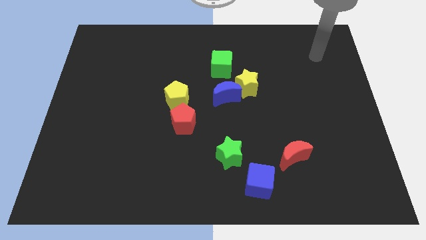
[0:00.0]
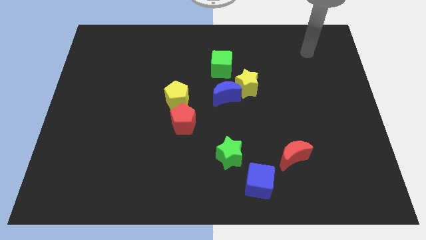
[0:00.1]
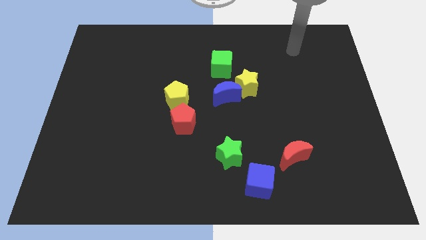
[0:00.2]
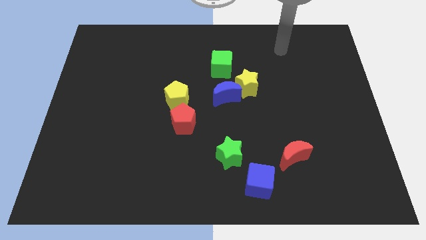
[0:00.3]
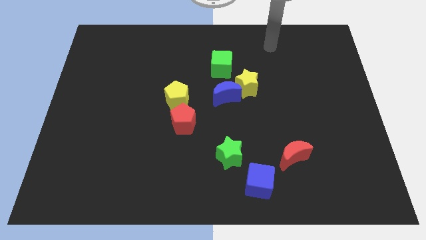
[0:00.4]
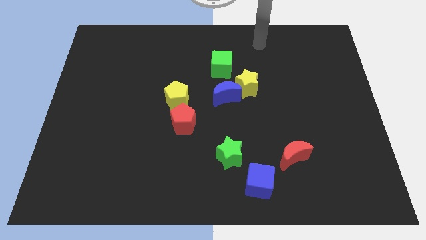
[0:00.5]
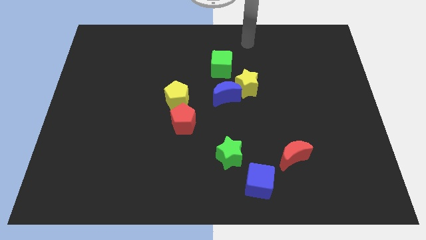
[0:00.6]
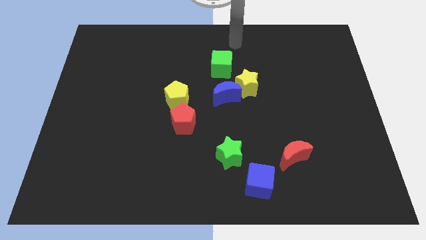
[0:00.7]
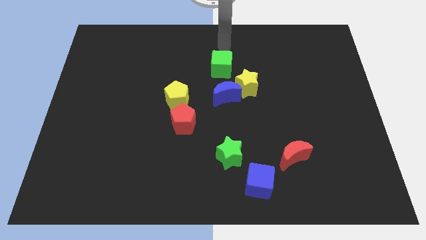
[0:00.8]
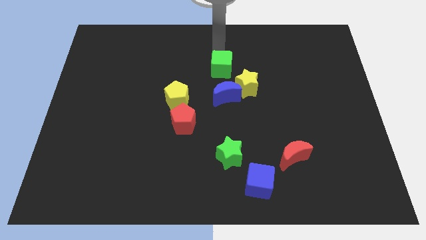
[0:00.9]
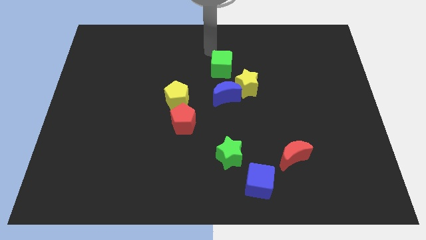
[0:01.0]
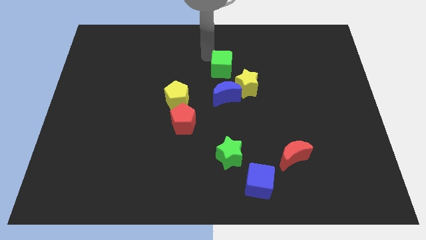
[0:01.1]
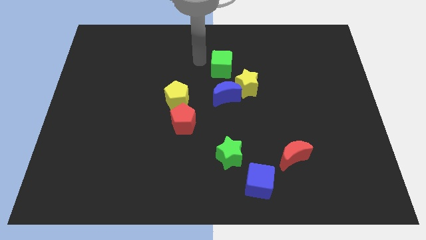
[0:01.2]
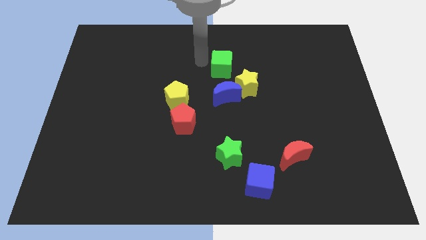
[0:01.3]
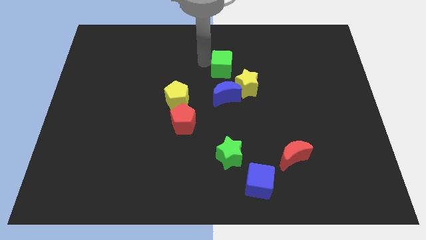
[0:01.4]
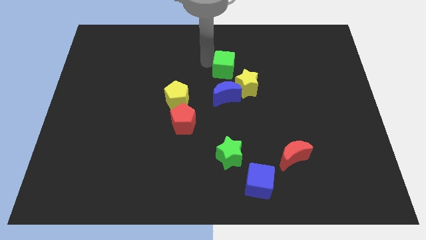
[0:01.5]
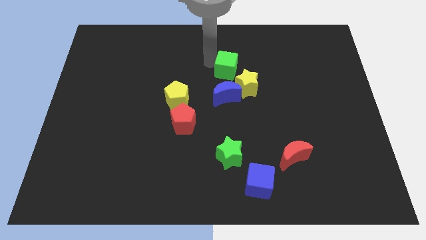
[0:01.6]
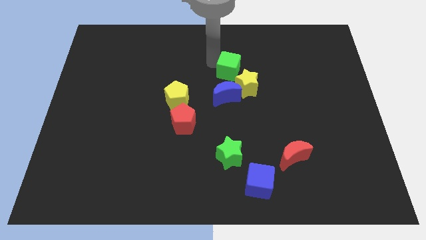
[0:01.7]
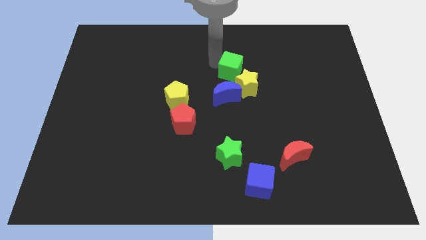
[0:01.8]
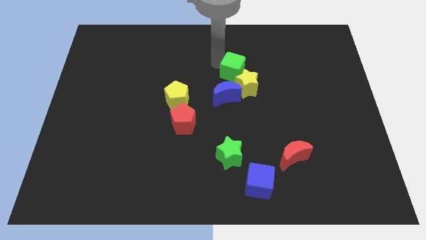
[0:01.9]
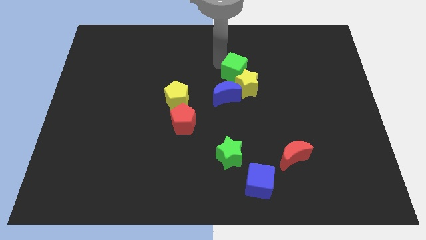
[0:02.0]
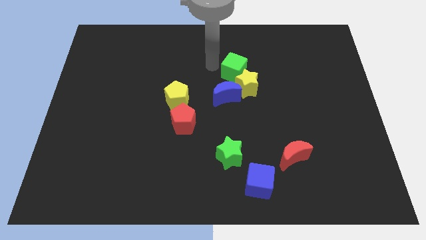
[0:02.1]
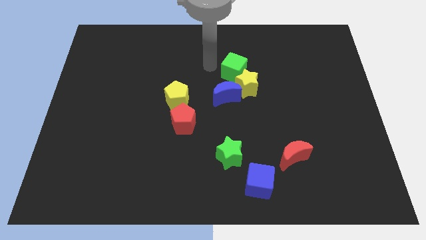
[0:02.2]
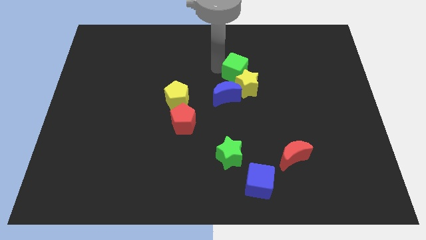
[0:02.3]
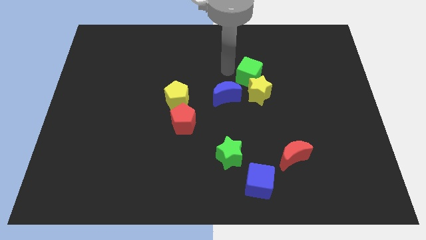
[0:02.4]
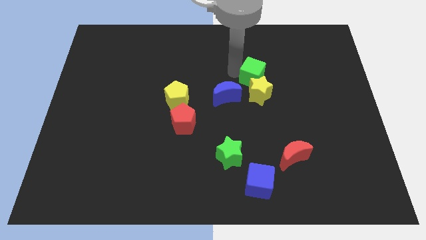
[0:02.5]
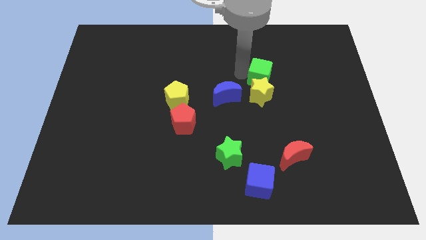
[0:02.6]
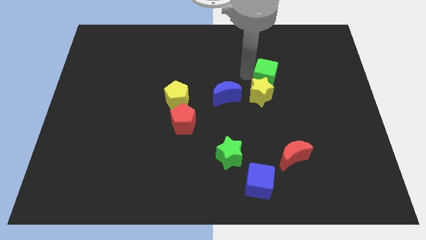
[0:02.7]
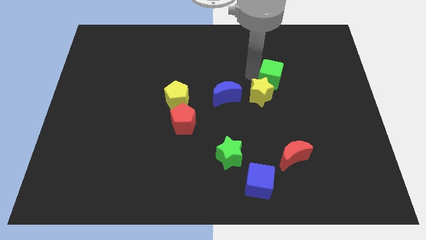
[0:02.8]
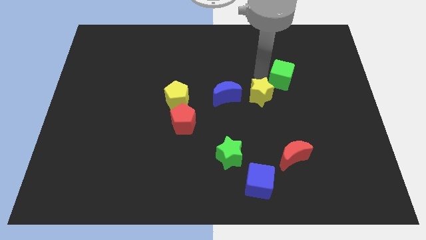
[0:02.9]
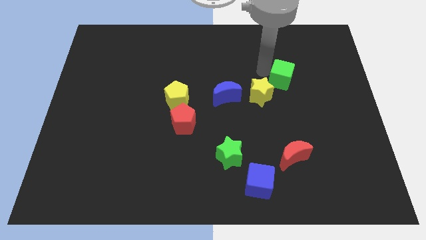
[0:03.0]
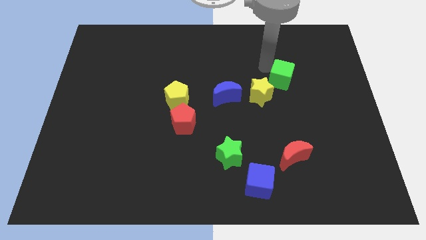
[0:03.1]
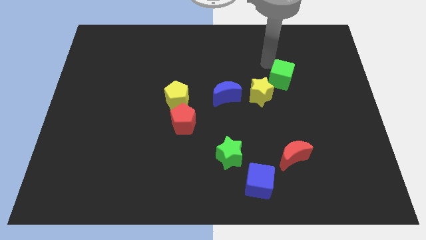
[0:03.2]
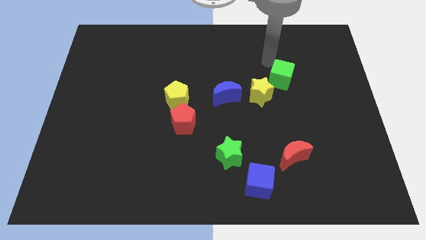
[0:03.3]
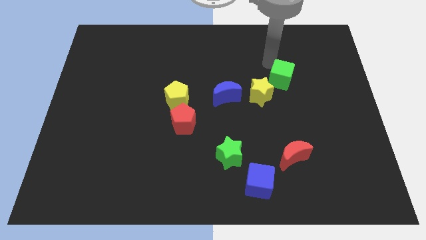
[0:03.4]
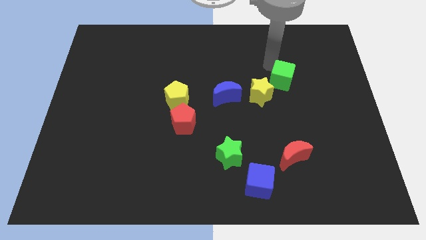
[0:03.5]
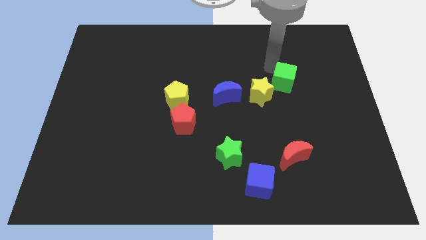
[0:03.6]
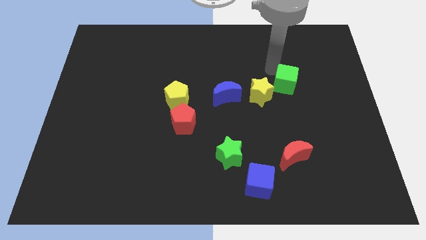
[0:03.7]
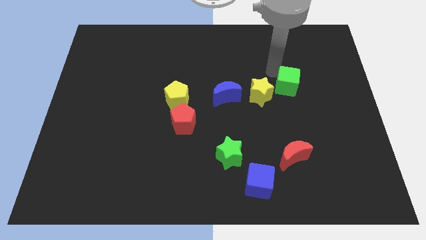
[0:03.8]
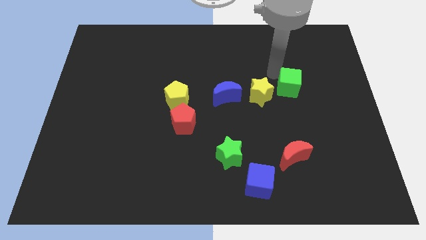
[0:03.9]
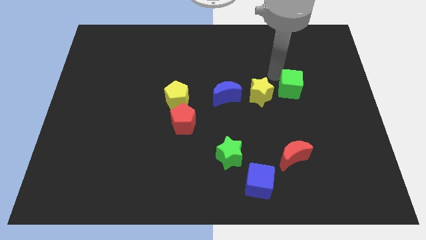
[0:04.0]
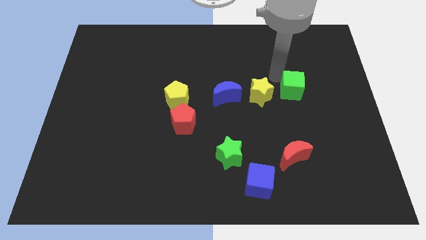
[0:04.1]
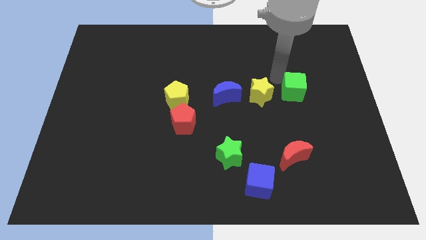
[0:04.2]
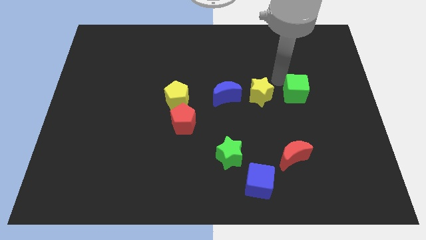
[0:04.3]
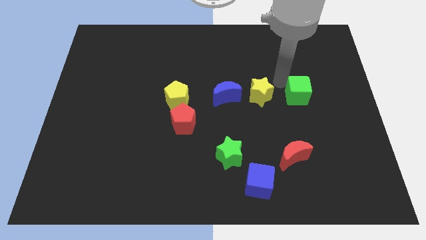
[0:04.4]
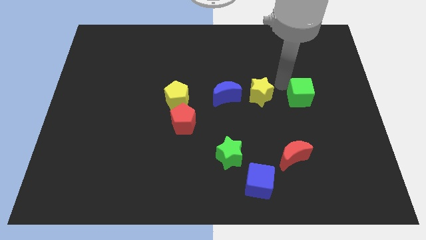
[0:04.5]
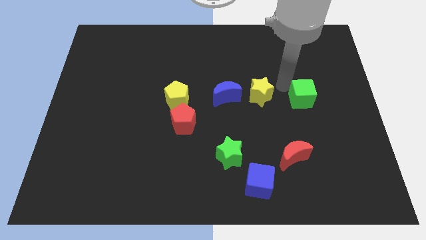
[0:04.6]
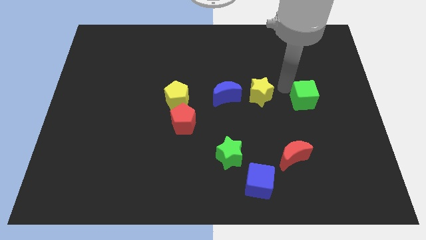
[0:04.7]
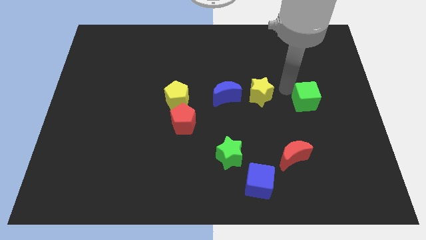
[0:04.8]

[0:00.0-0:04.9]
move the green cube downwards and right diagonally

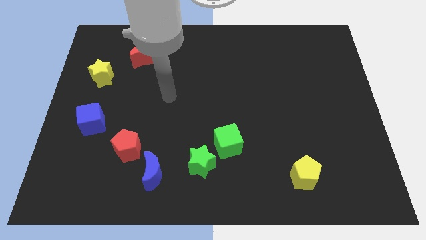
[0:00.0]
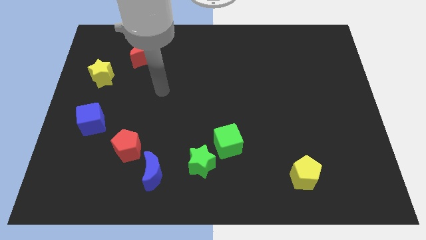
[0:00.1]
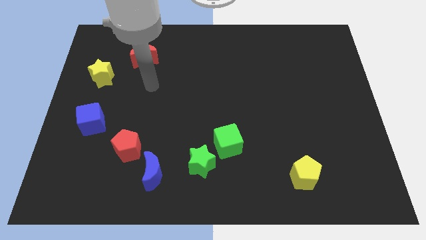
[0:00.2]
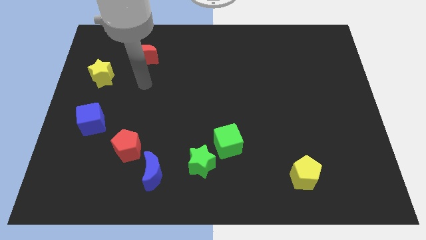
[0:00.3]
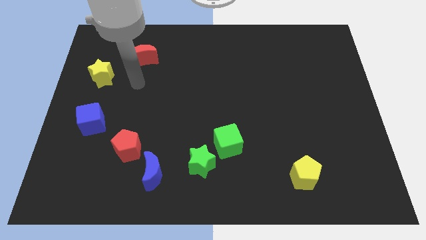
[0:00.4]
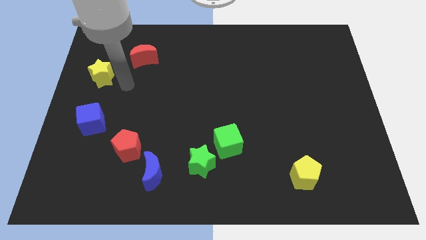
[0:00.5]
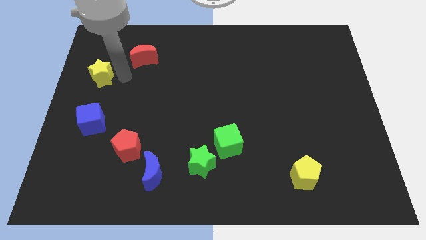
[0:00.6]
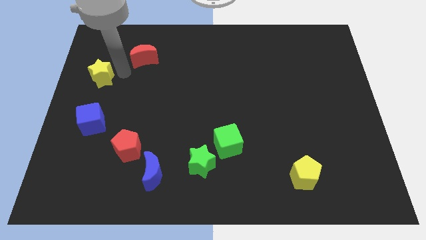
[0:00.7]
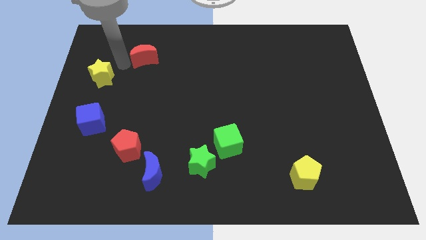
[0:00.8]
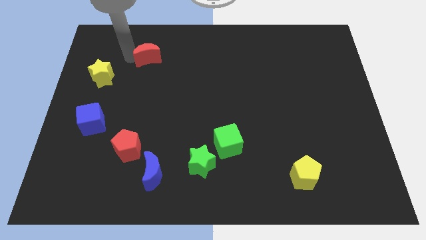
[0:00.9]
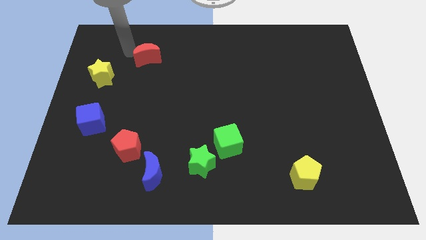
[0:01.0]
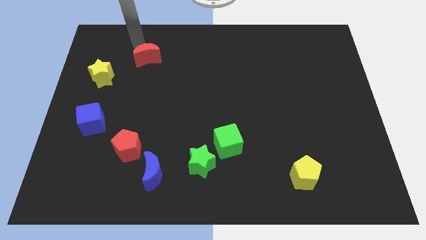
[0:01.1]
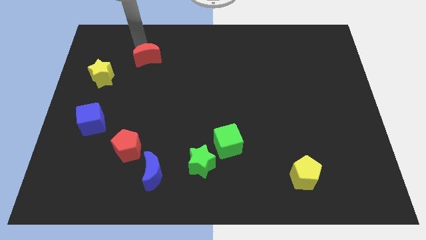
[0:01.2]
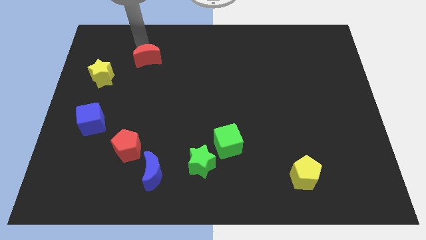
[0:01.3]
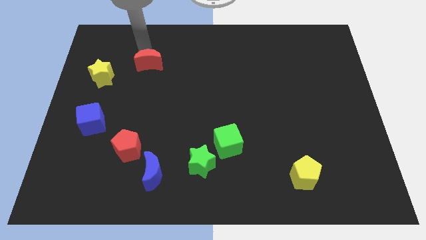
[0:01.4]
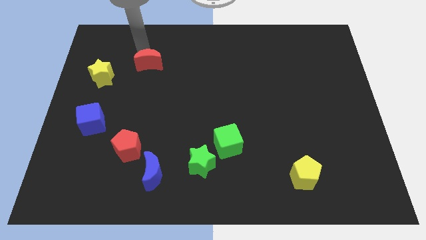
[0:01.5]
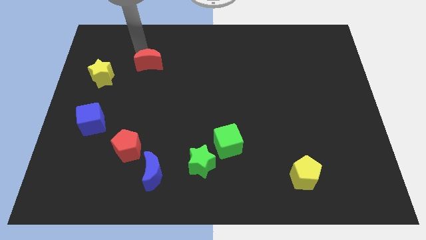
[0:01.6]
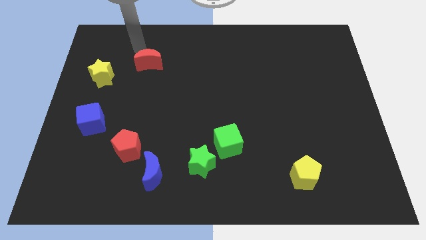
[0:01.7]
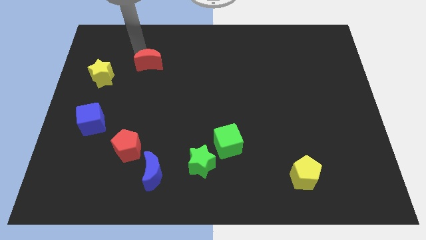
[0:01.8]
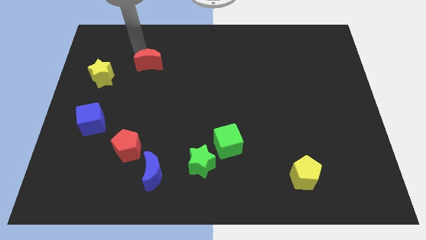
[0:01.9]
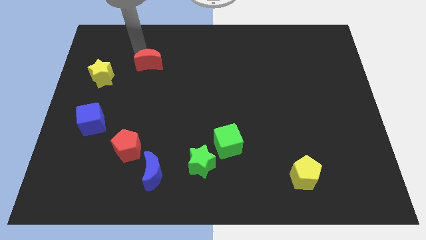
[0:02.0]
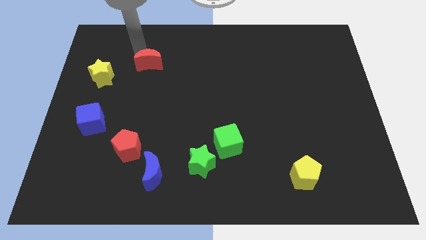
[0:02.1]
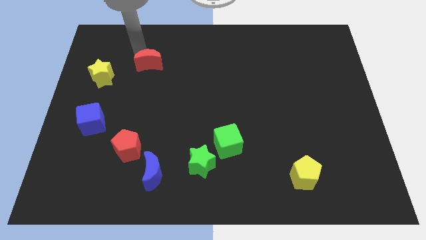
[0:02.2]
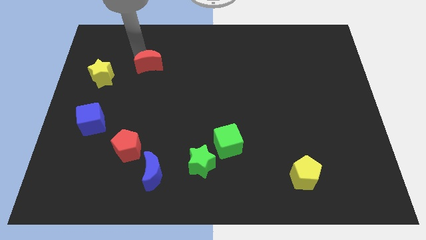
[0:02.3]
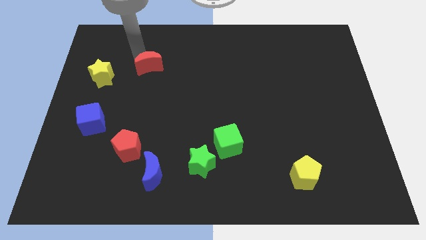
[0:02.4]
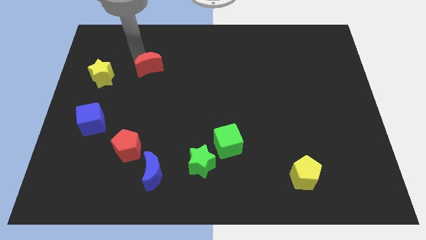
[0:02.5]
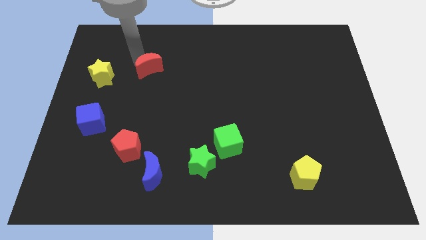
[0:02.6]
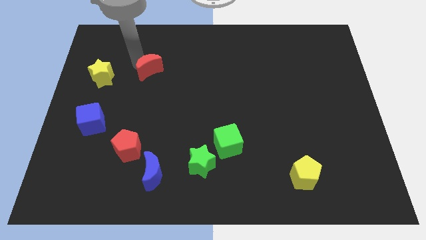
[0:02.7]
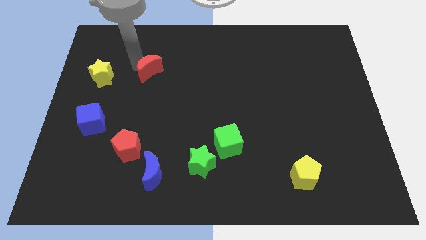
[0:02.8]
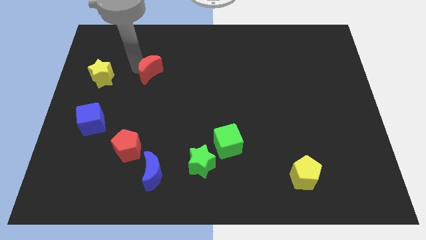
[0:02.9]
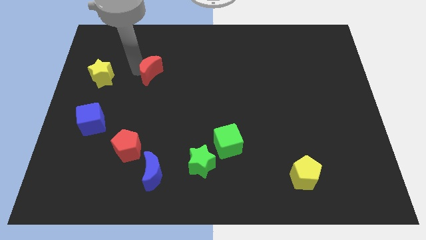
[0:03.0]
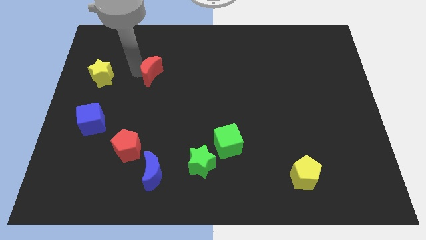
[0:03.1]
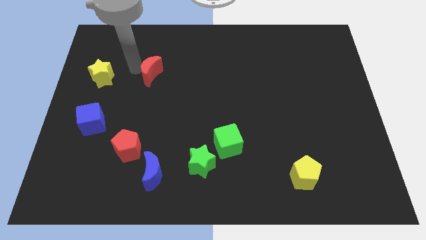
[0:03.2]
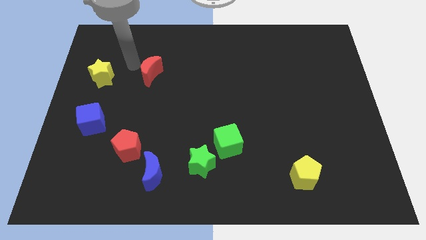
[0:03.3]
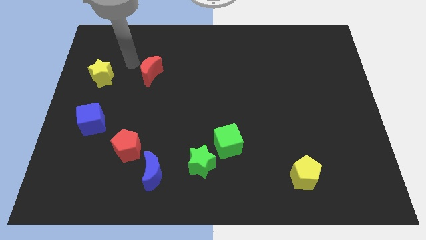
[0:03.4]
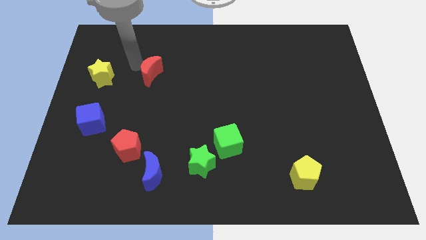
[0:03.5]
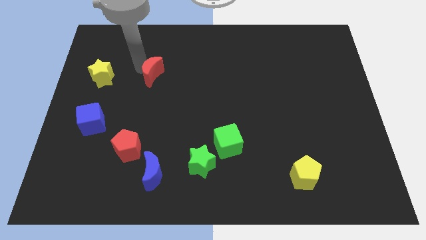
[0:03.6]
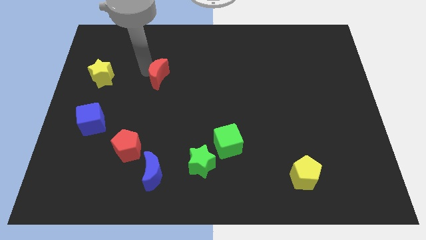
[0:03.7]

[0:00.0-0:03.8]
slide the red moon downwards and to the right diagonally a little
